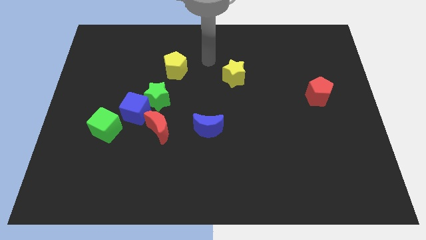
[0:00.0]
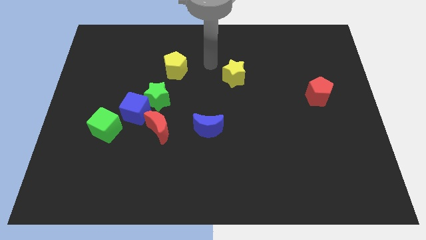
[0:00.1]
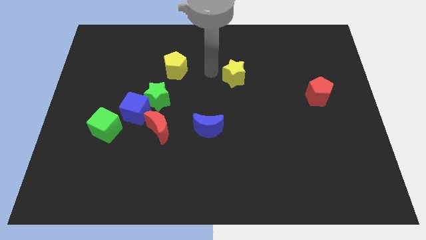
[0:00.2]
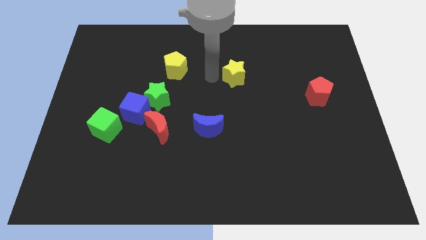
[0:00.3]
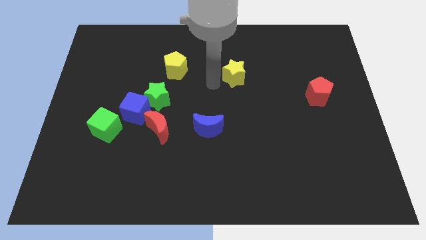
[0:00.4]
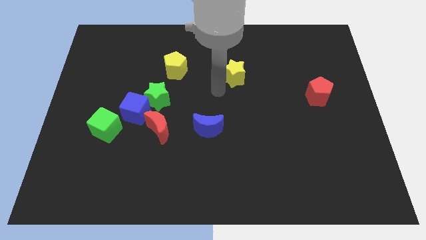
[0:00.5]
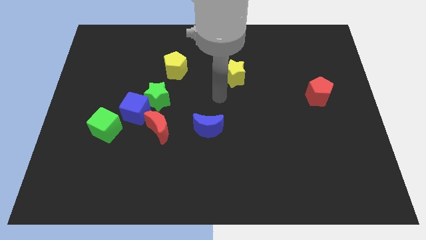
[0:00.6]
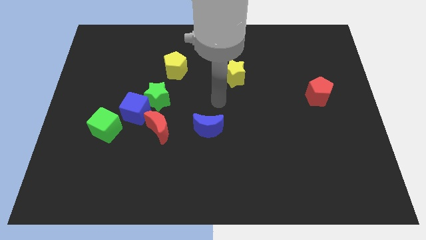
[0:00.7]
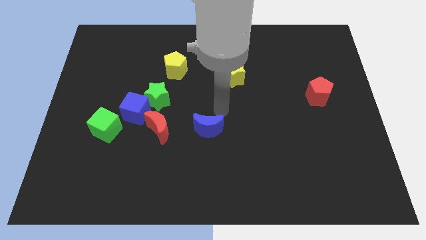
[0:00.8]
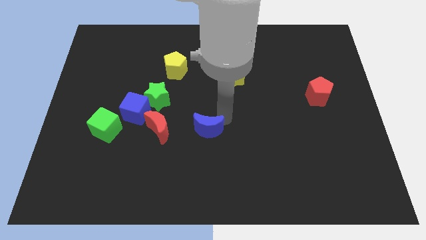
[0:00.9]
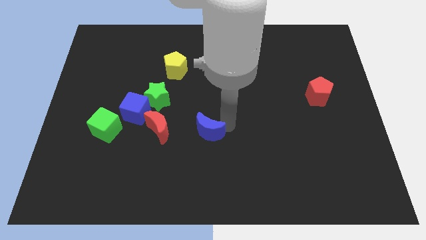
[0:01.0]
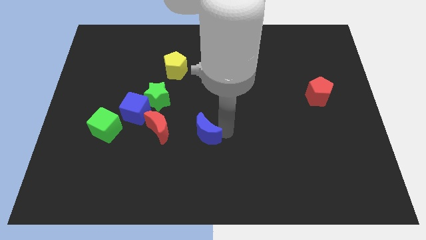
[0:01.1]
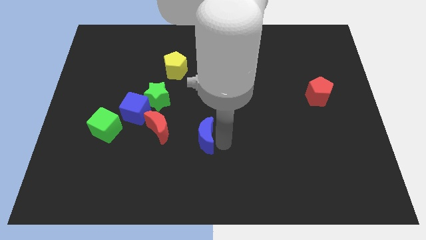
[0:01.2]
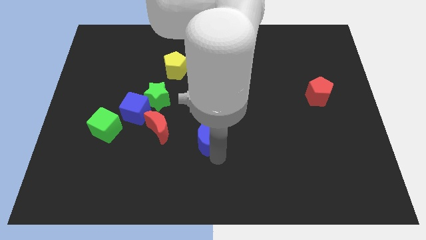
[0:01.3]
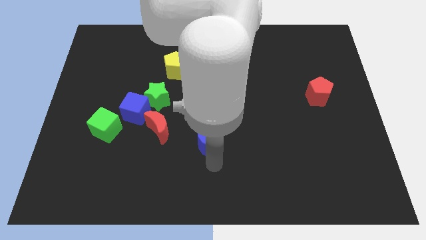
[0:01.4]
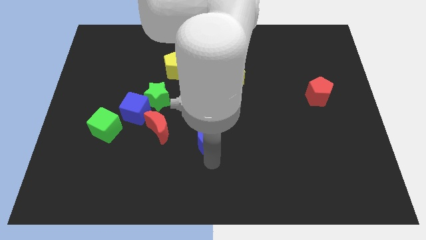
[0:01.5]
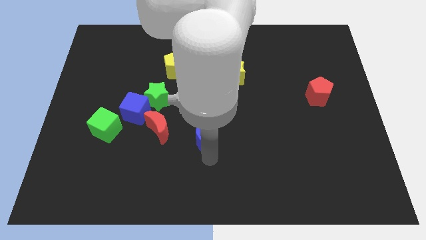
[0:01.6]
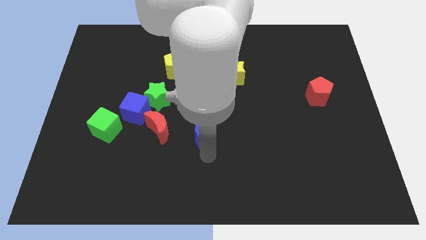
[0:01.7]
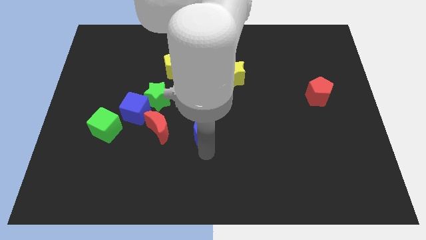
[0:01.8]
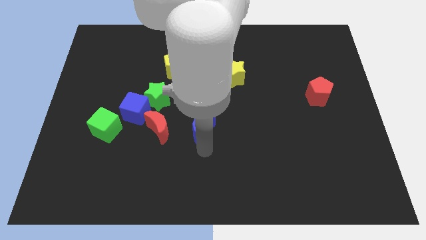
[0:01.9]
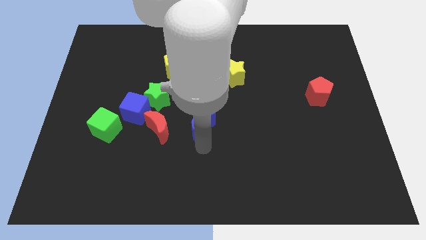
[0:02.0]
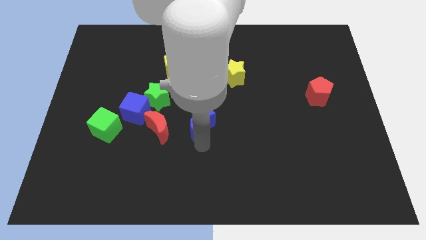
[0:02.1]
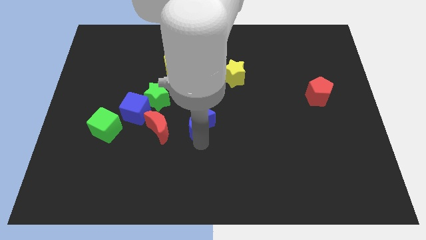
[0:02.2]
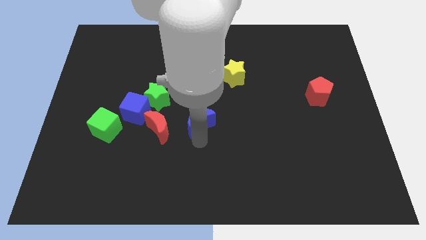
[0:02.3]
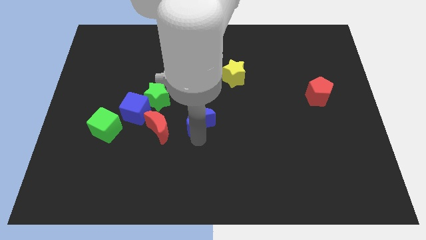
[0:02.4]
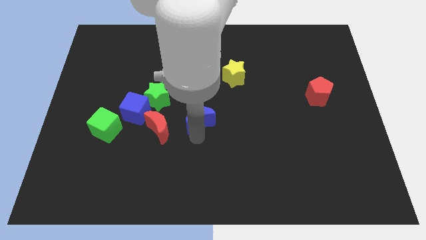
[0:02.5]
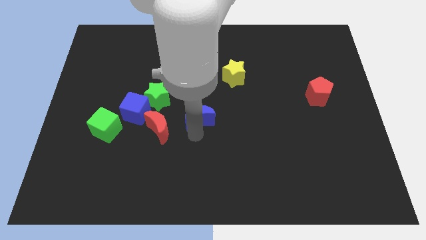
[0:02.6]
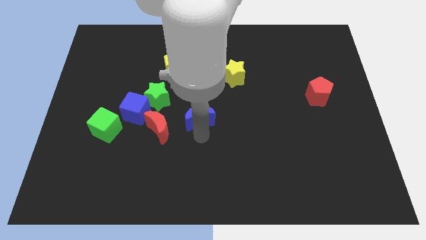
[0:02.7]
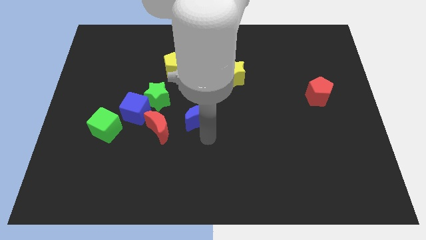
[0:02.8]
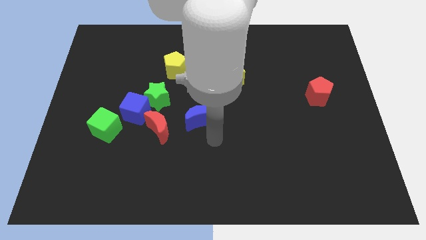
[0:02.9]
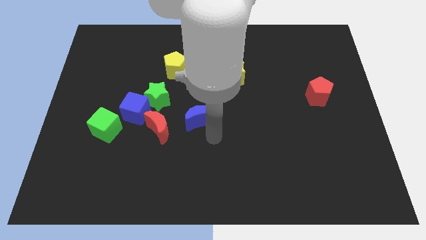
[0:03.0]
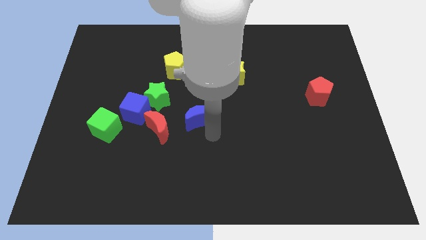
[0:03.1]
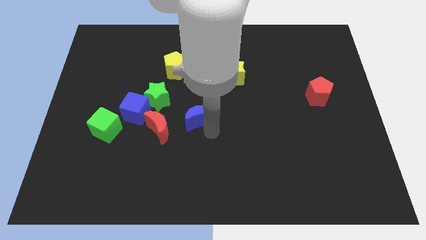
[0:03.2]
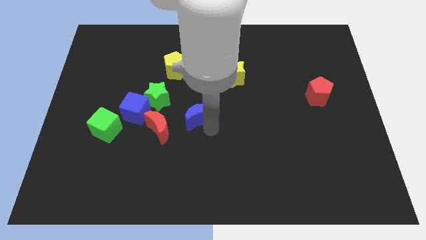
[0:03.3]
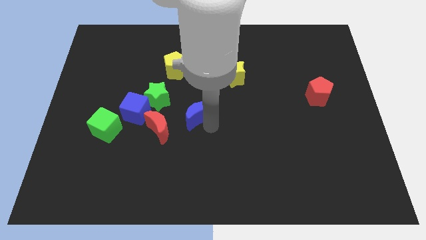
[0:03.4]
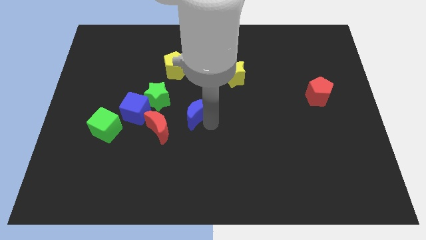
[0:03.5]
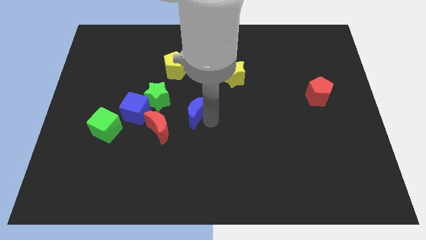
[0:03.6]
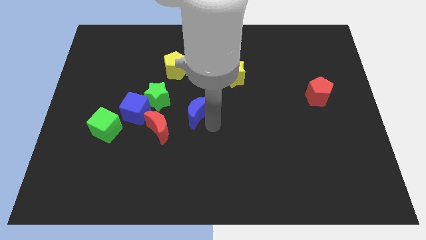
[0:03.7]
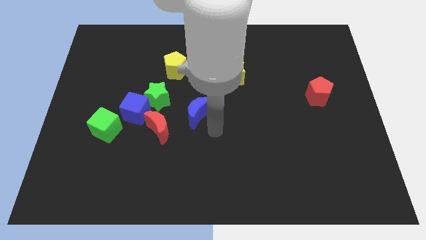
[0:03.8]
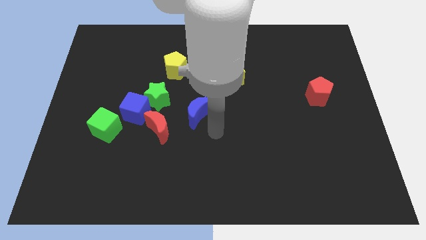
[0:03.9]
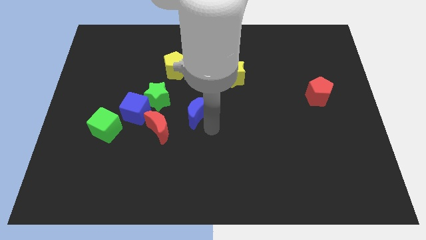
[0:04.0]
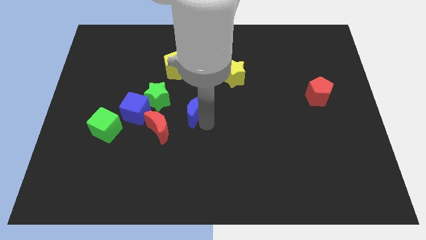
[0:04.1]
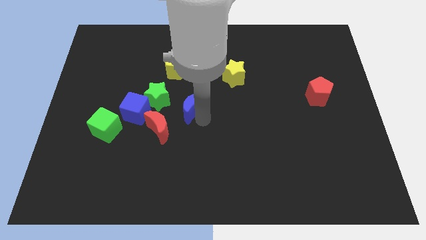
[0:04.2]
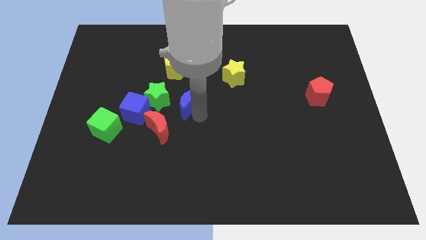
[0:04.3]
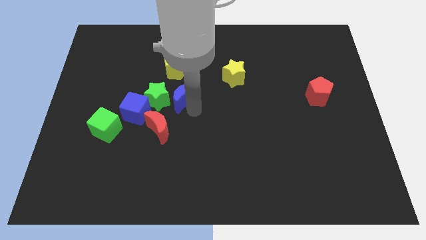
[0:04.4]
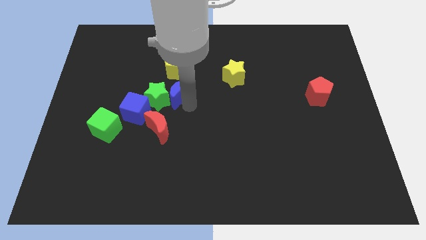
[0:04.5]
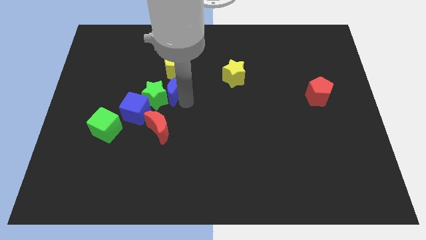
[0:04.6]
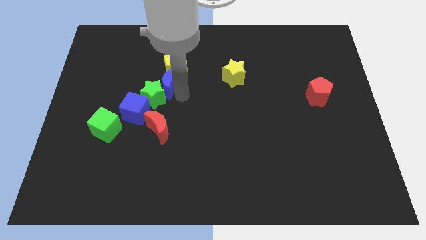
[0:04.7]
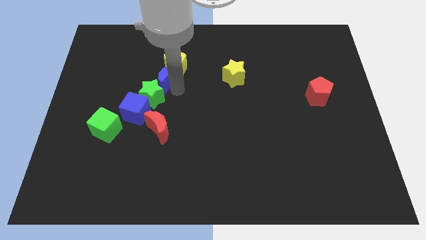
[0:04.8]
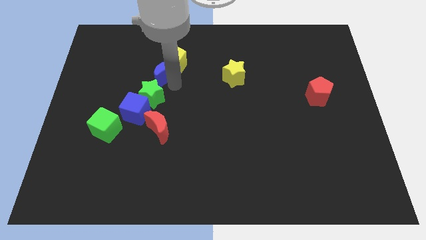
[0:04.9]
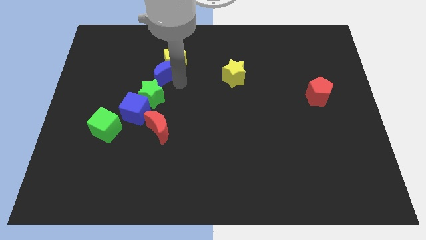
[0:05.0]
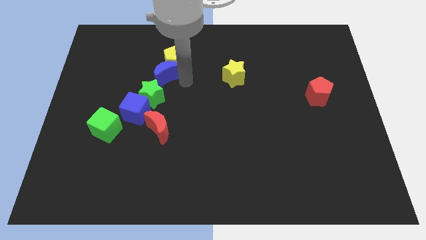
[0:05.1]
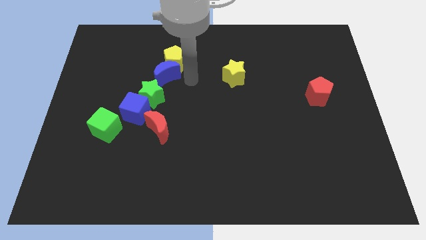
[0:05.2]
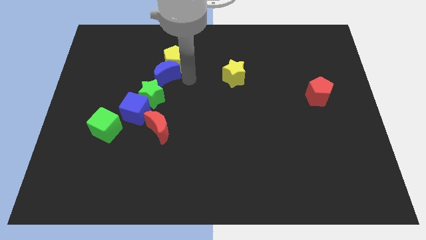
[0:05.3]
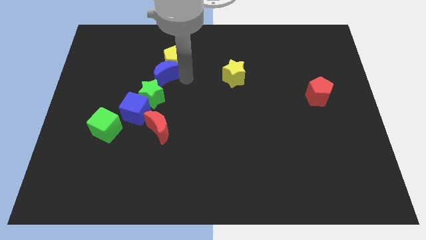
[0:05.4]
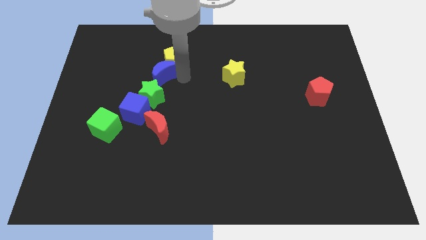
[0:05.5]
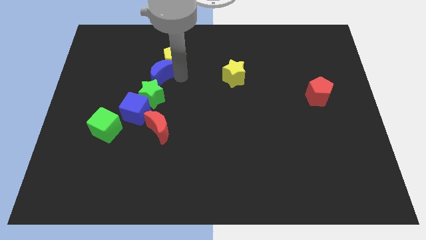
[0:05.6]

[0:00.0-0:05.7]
move the blue moon upwards and left diagonally

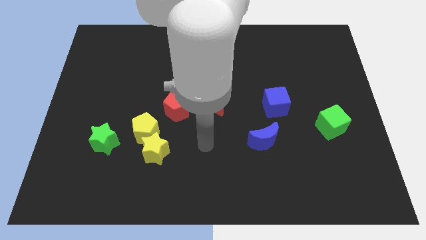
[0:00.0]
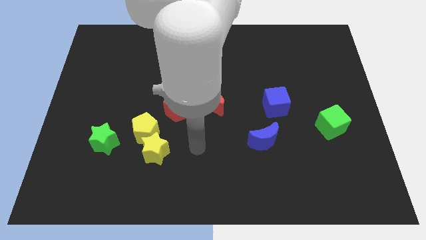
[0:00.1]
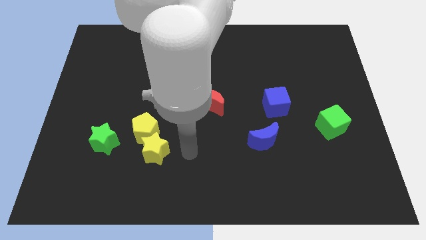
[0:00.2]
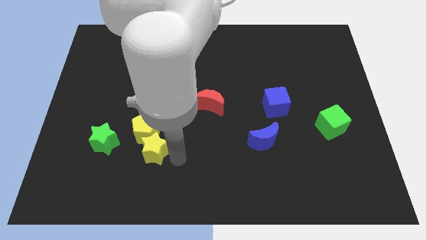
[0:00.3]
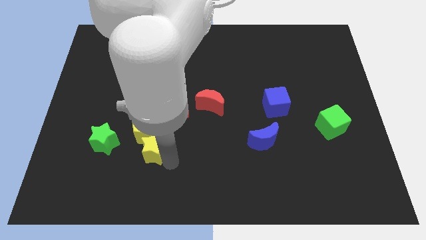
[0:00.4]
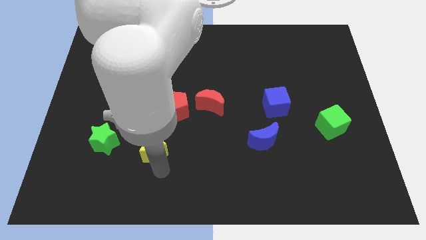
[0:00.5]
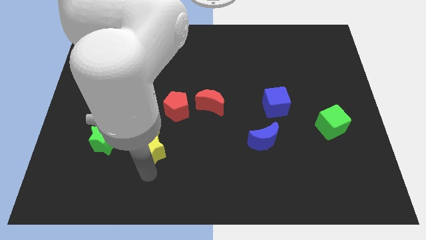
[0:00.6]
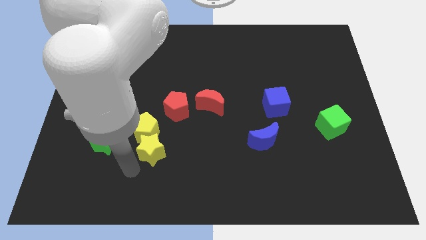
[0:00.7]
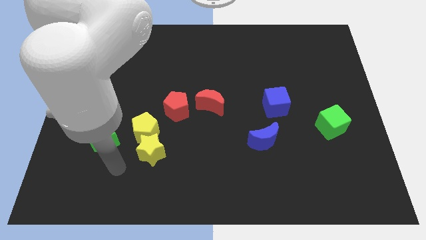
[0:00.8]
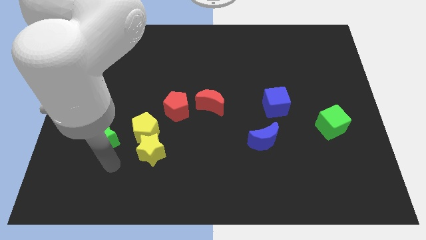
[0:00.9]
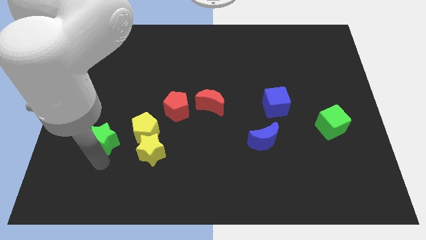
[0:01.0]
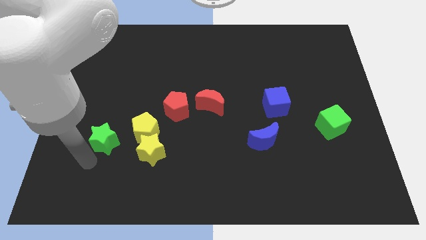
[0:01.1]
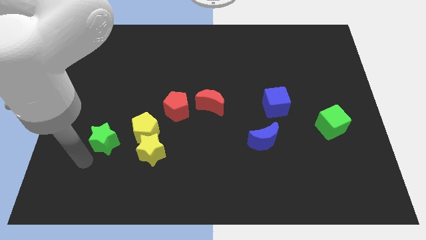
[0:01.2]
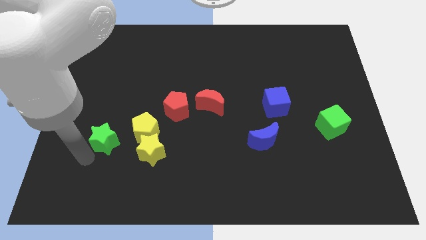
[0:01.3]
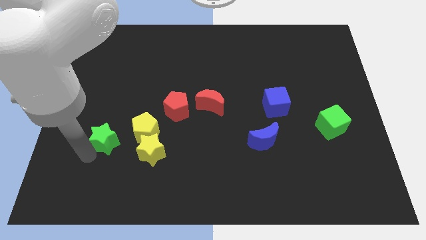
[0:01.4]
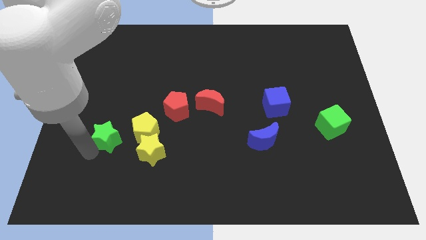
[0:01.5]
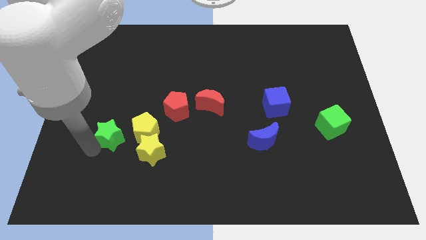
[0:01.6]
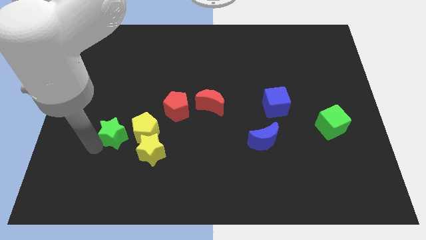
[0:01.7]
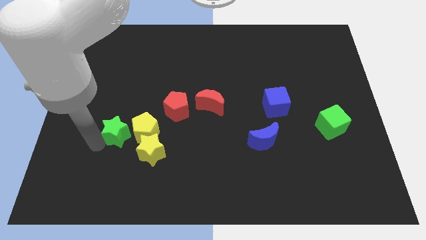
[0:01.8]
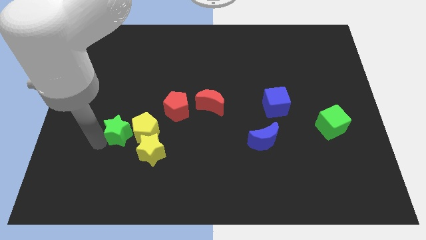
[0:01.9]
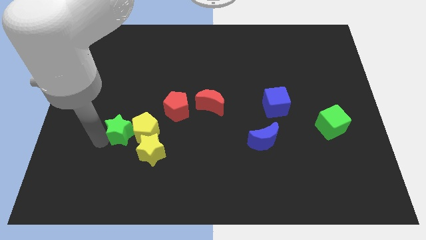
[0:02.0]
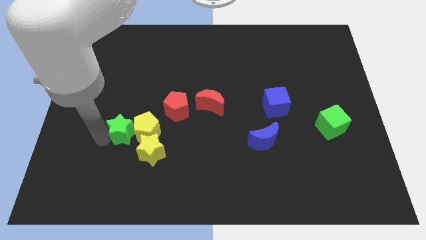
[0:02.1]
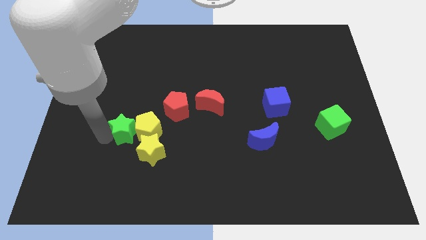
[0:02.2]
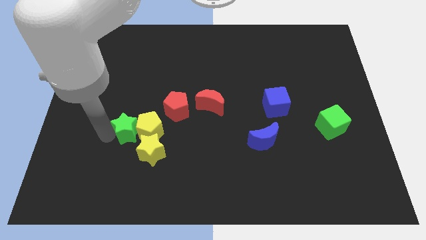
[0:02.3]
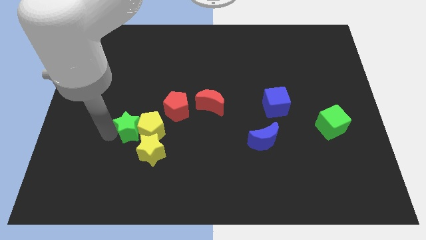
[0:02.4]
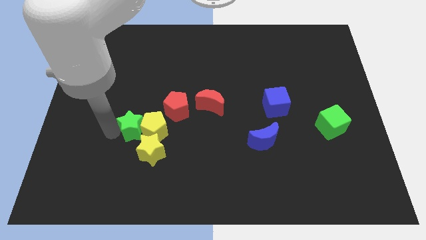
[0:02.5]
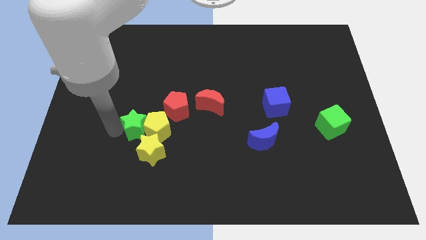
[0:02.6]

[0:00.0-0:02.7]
slightly move the green star up and to the right
